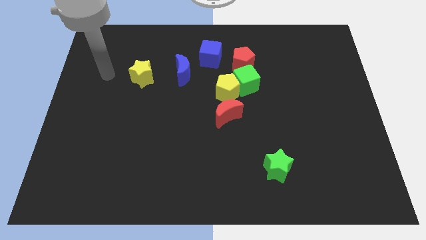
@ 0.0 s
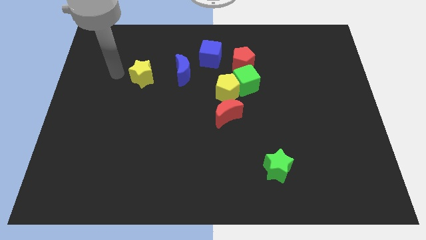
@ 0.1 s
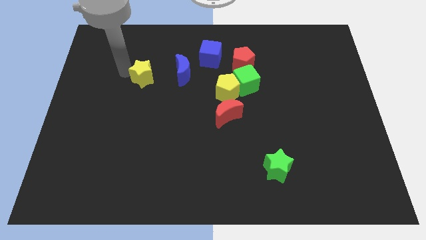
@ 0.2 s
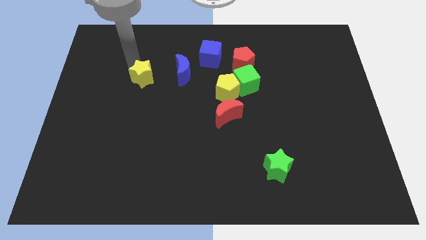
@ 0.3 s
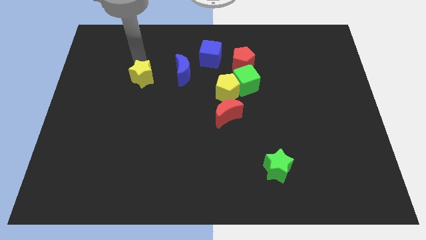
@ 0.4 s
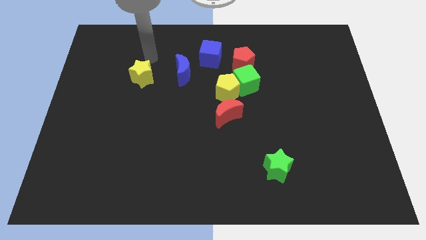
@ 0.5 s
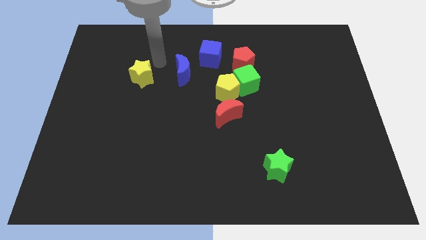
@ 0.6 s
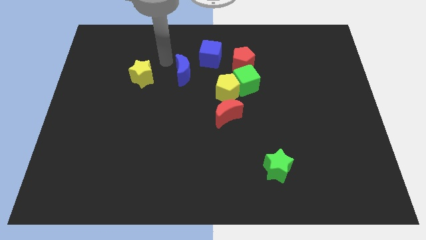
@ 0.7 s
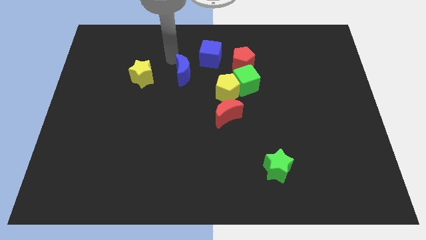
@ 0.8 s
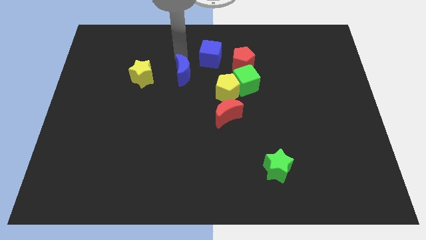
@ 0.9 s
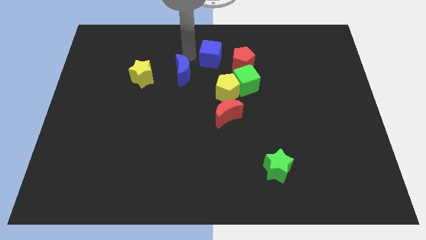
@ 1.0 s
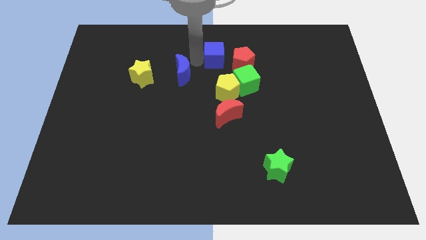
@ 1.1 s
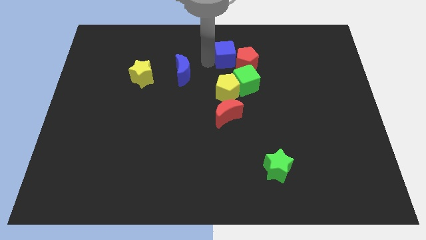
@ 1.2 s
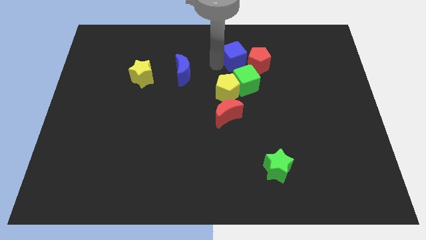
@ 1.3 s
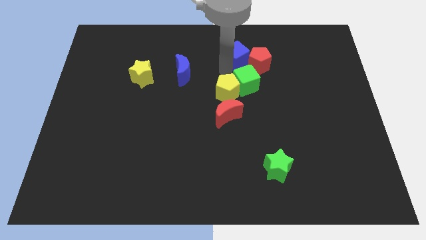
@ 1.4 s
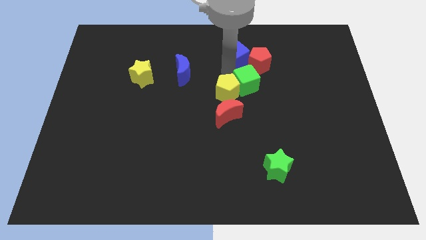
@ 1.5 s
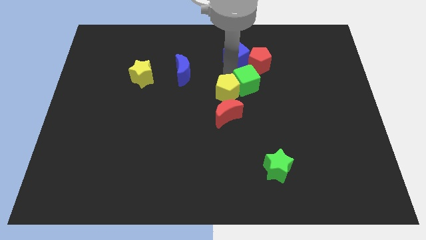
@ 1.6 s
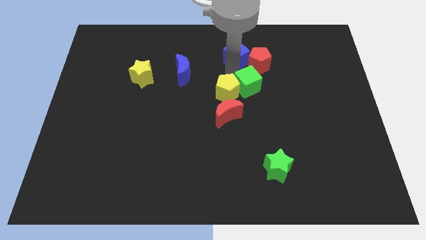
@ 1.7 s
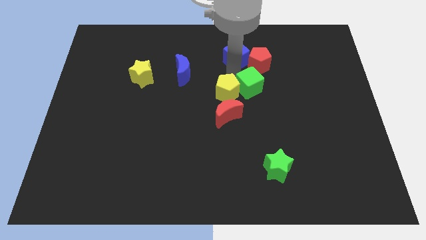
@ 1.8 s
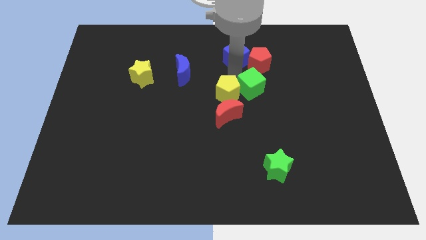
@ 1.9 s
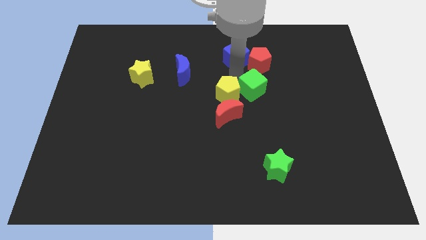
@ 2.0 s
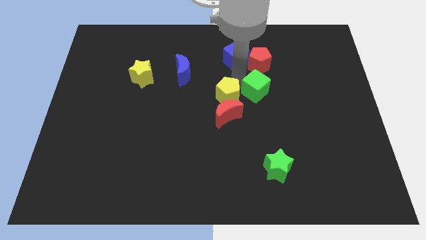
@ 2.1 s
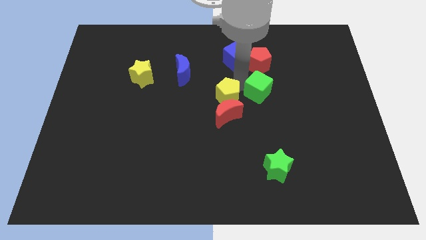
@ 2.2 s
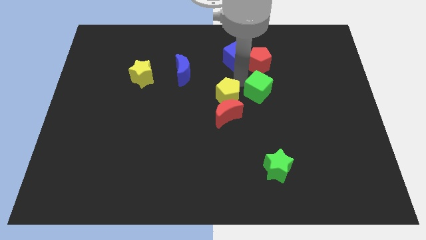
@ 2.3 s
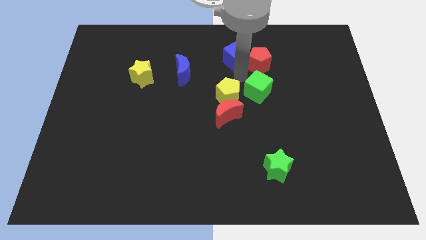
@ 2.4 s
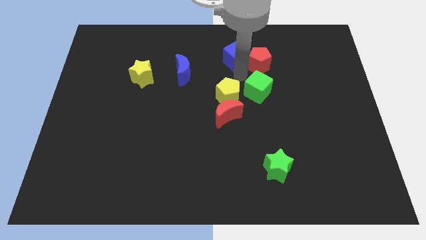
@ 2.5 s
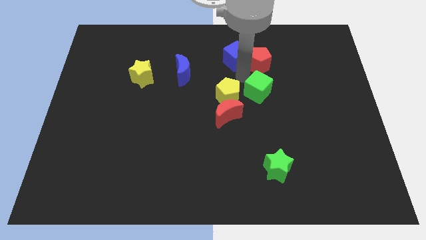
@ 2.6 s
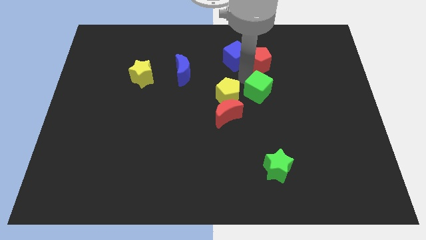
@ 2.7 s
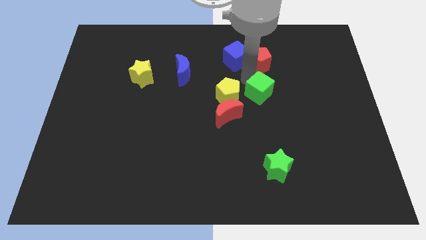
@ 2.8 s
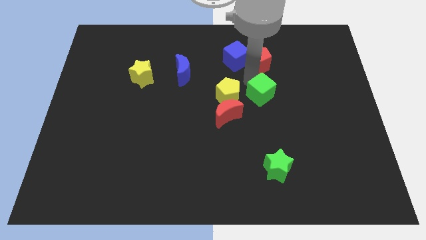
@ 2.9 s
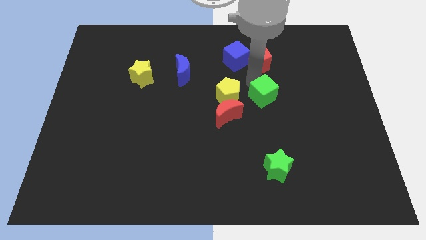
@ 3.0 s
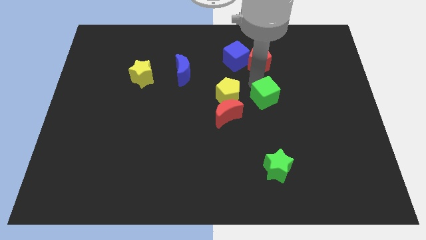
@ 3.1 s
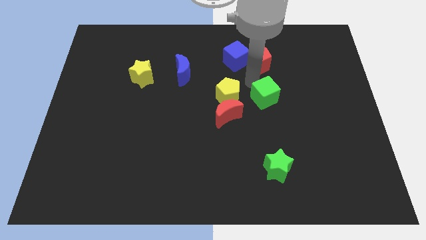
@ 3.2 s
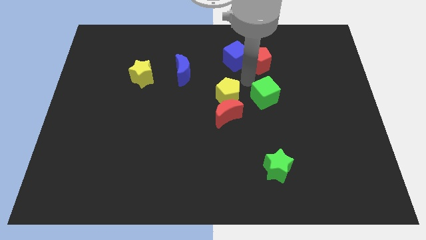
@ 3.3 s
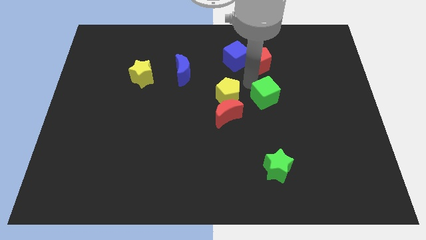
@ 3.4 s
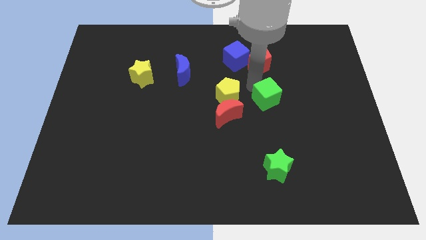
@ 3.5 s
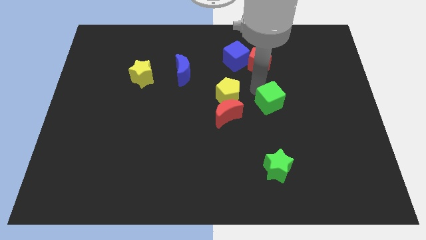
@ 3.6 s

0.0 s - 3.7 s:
slide the green cube somewhat down and right

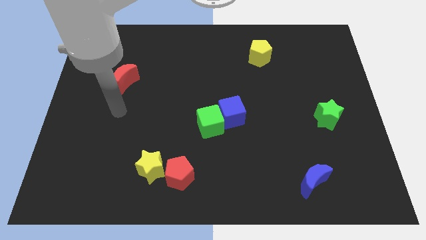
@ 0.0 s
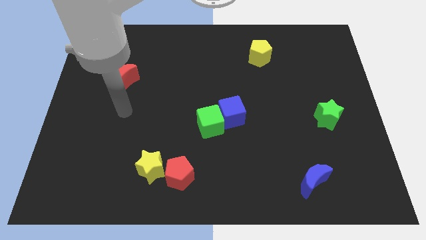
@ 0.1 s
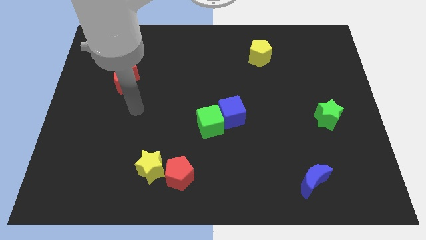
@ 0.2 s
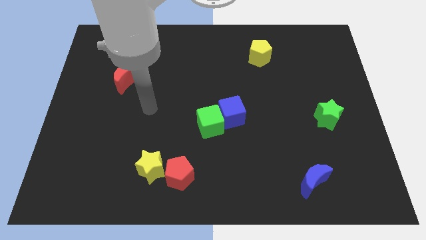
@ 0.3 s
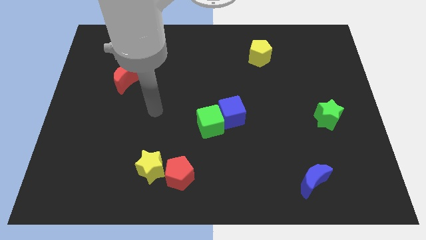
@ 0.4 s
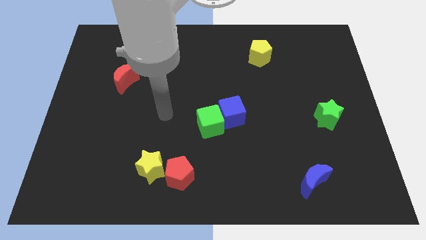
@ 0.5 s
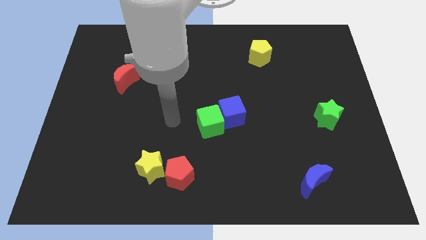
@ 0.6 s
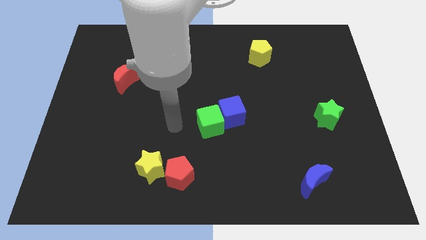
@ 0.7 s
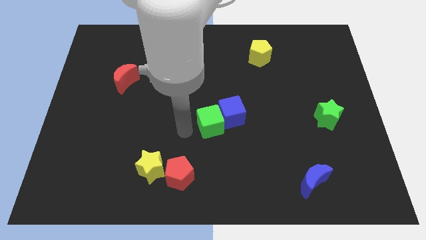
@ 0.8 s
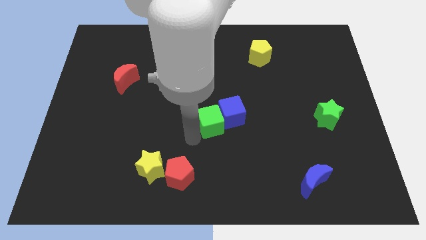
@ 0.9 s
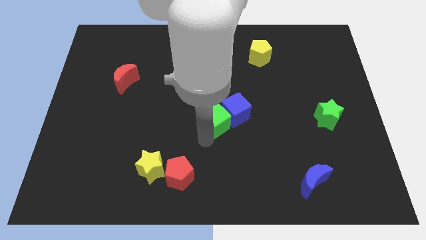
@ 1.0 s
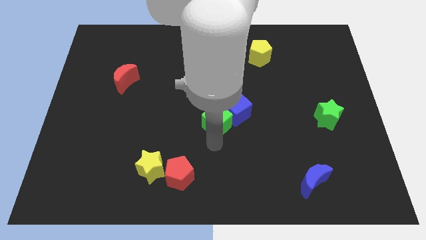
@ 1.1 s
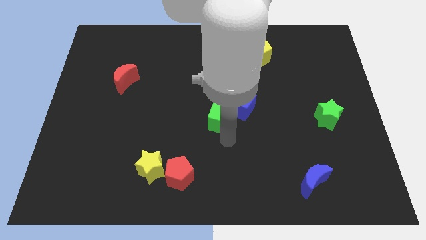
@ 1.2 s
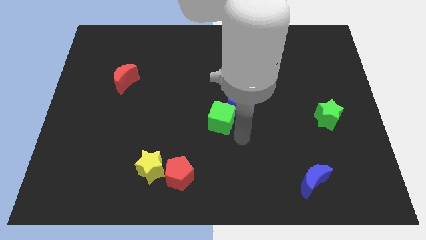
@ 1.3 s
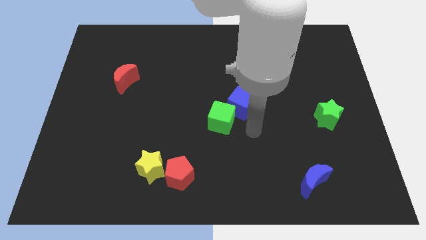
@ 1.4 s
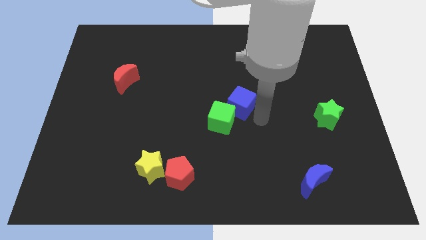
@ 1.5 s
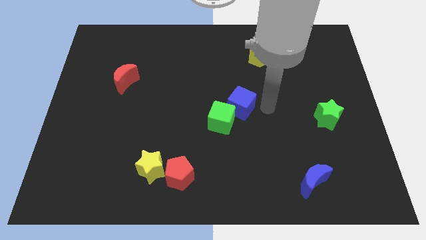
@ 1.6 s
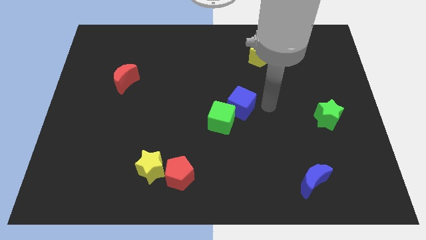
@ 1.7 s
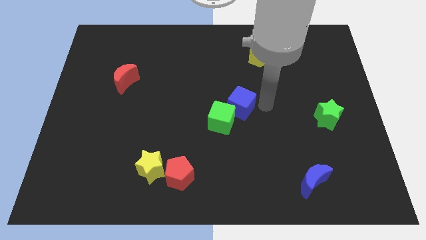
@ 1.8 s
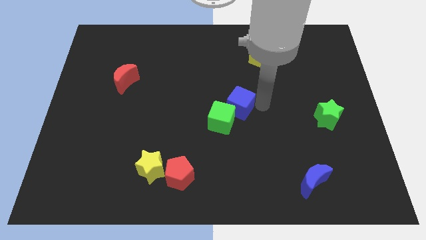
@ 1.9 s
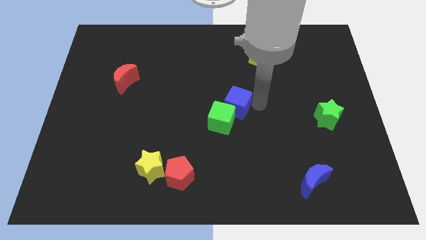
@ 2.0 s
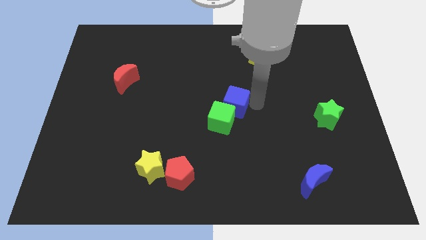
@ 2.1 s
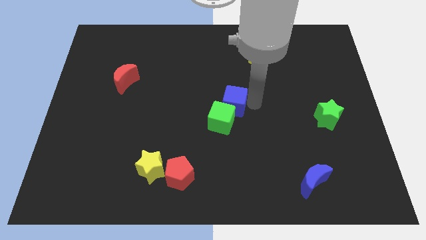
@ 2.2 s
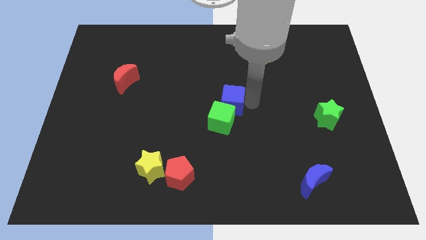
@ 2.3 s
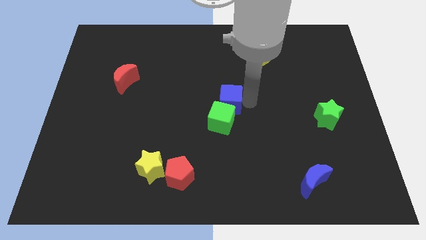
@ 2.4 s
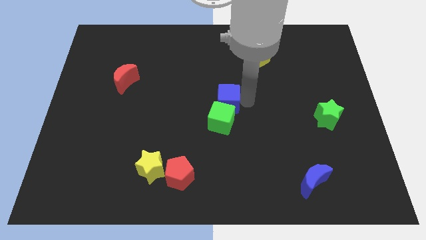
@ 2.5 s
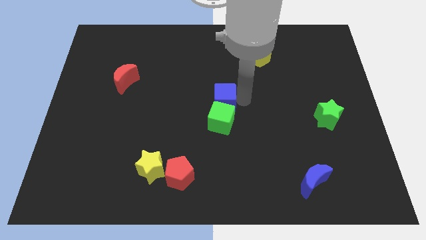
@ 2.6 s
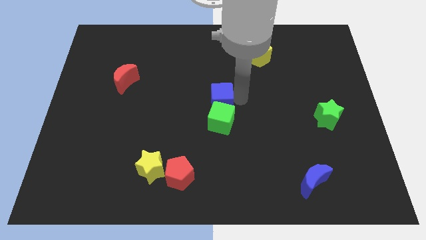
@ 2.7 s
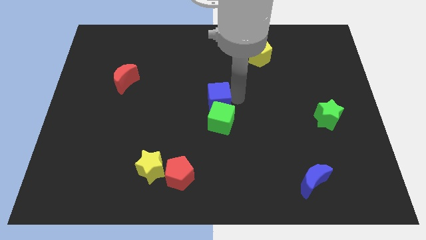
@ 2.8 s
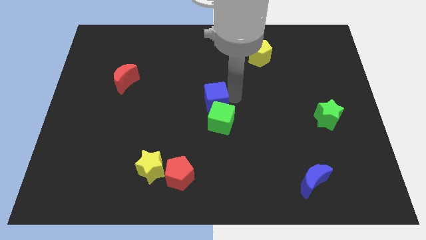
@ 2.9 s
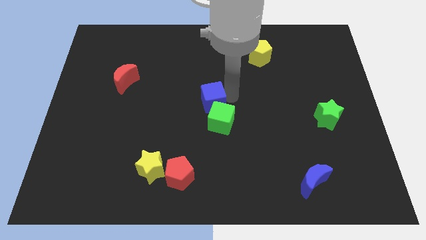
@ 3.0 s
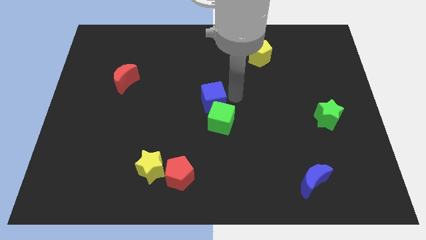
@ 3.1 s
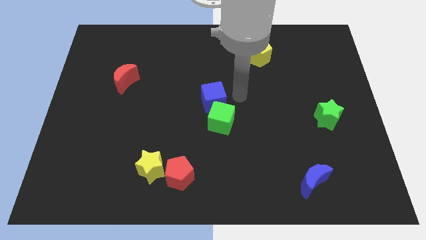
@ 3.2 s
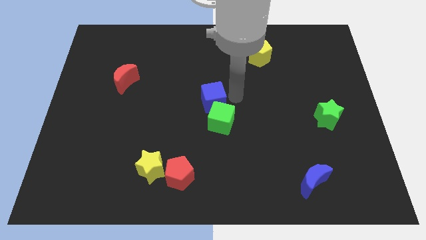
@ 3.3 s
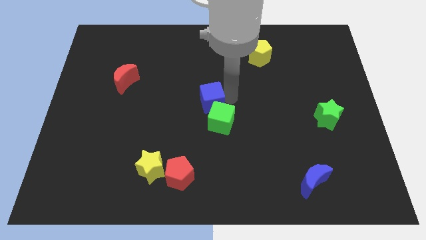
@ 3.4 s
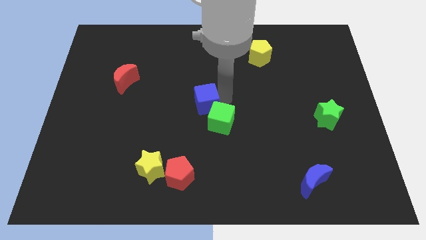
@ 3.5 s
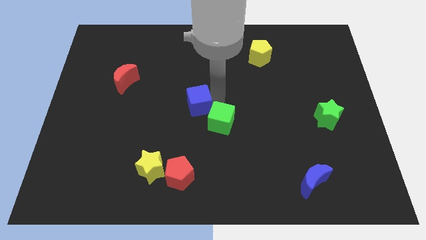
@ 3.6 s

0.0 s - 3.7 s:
push the blue cube left somewhat

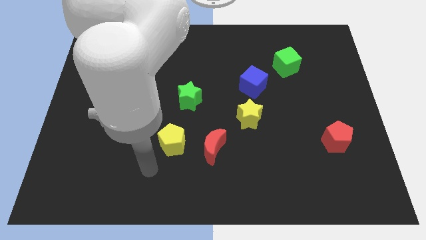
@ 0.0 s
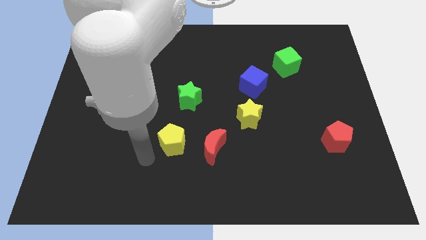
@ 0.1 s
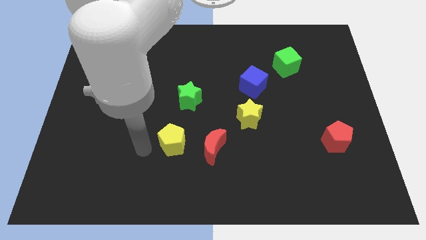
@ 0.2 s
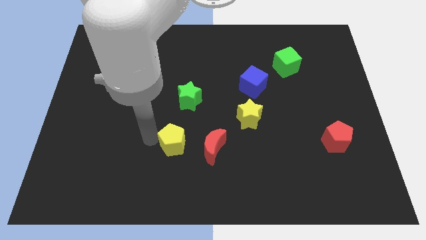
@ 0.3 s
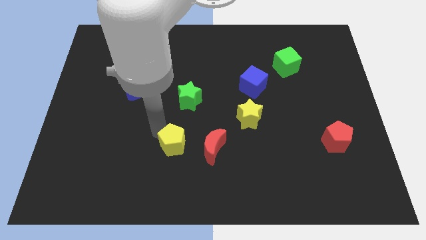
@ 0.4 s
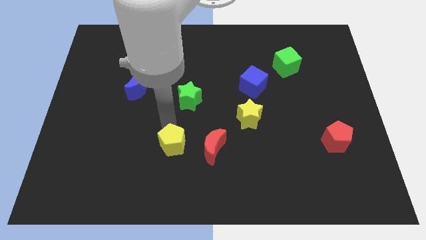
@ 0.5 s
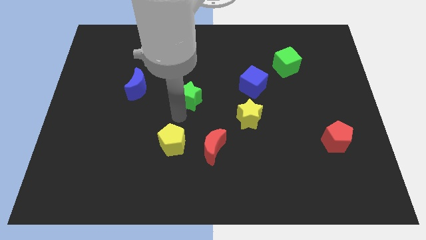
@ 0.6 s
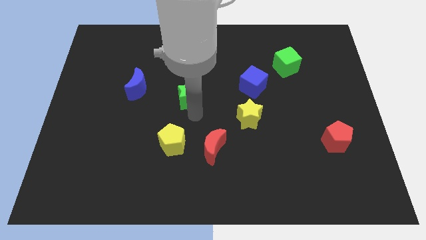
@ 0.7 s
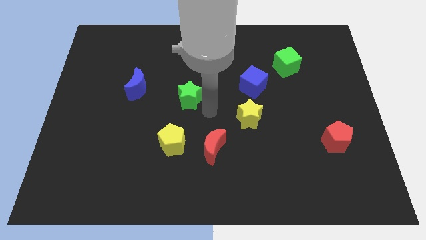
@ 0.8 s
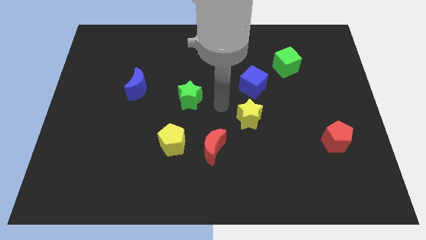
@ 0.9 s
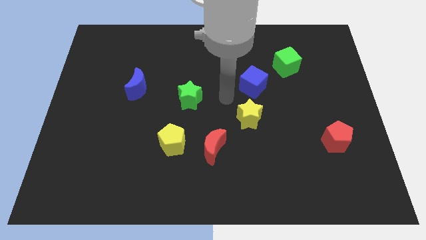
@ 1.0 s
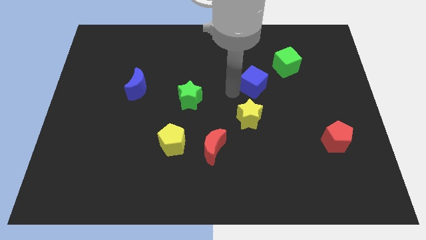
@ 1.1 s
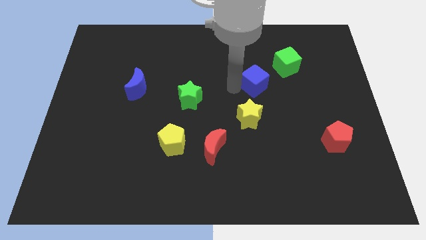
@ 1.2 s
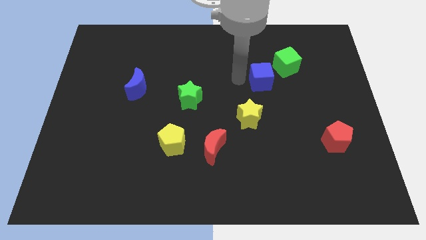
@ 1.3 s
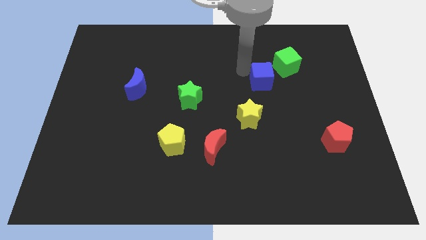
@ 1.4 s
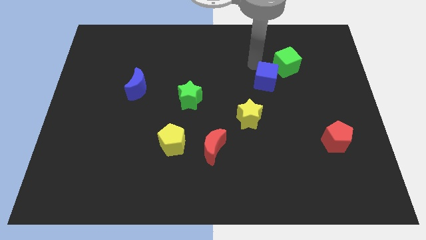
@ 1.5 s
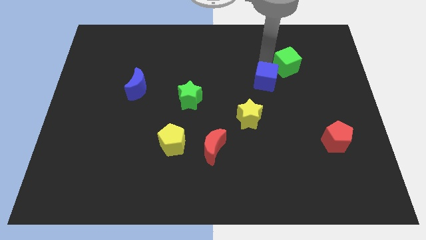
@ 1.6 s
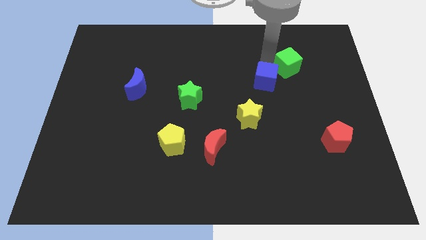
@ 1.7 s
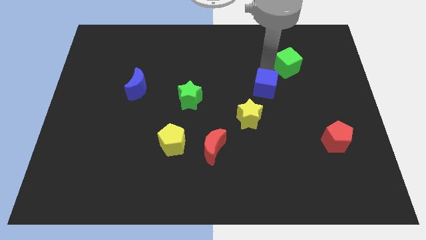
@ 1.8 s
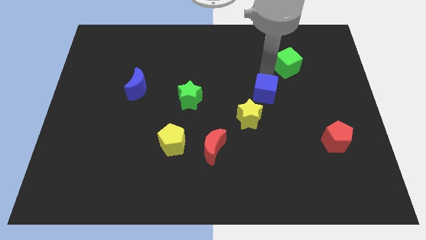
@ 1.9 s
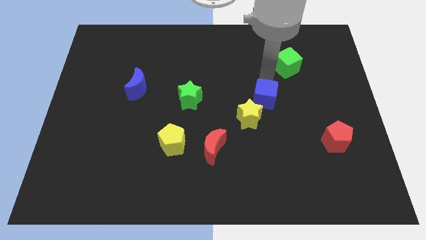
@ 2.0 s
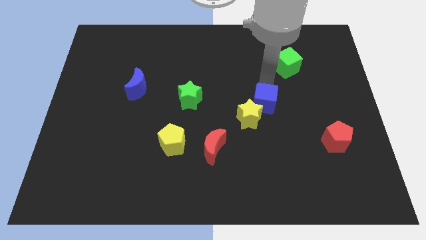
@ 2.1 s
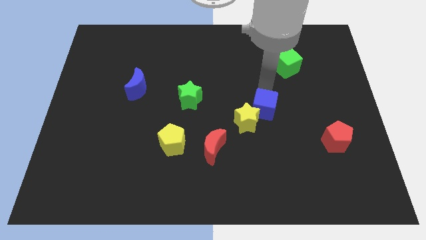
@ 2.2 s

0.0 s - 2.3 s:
slide the blue cube down somewhat
